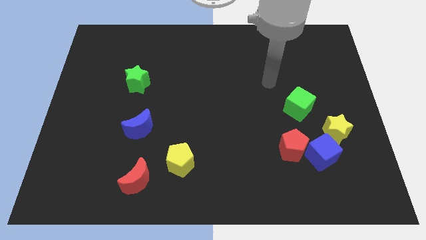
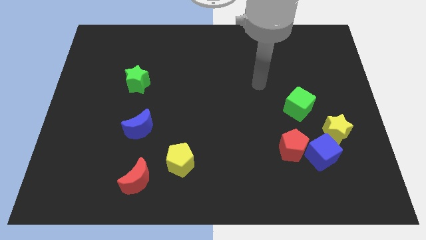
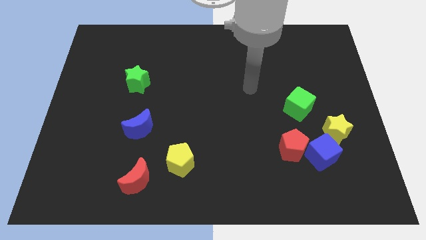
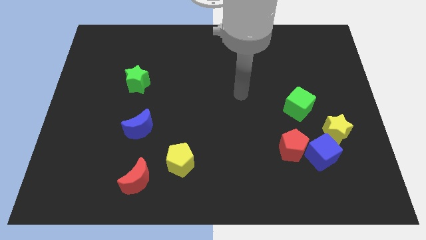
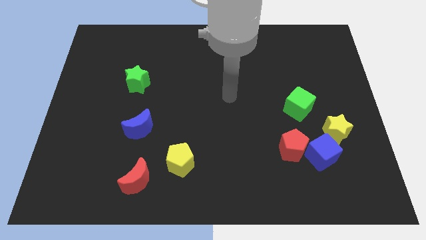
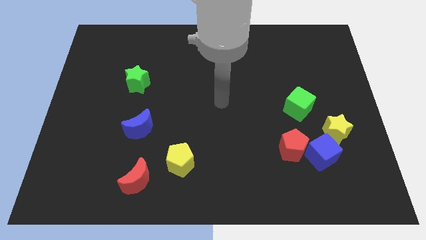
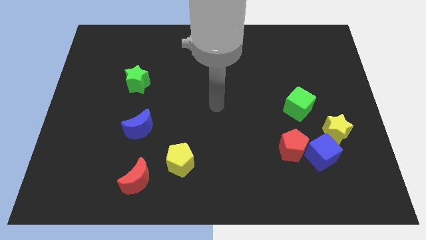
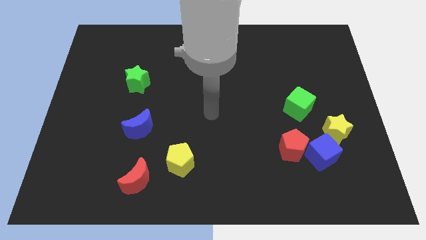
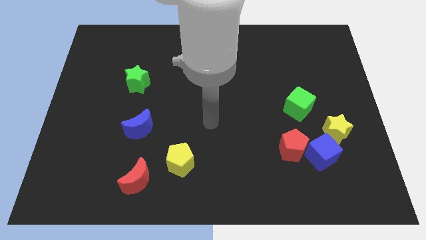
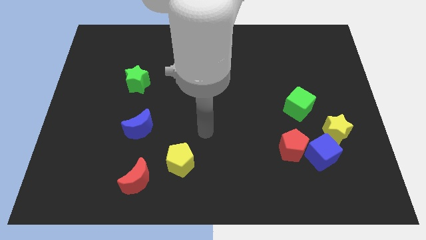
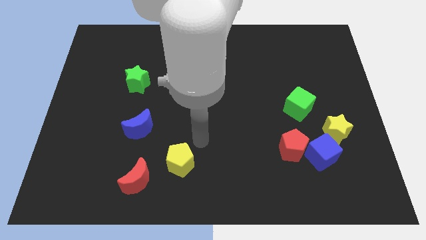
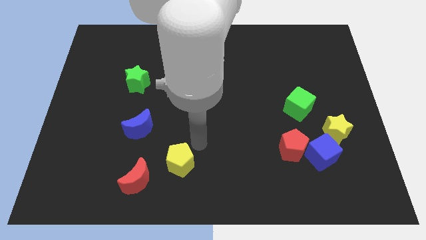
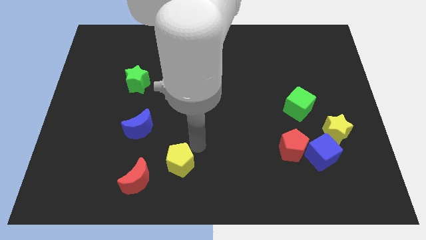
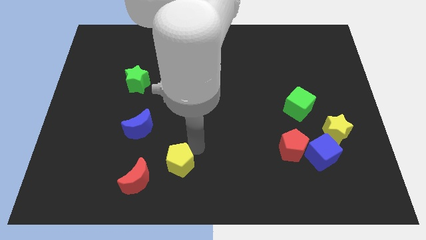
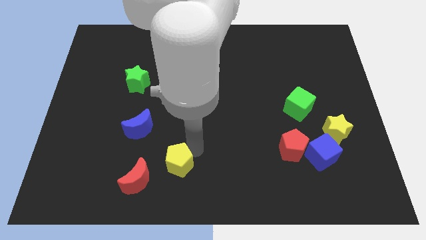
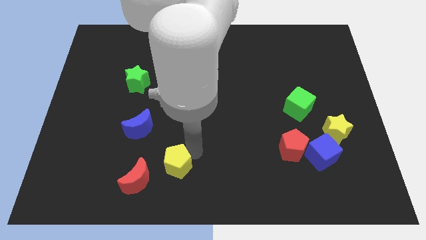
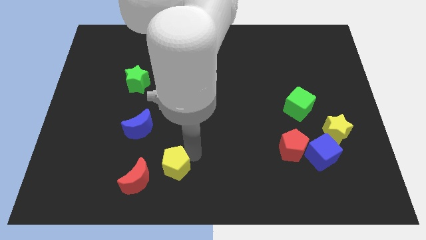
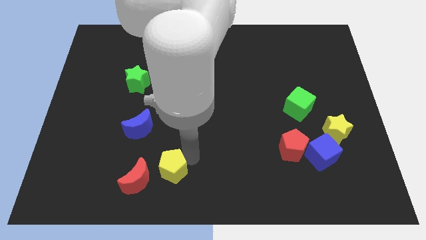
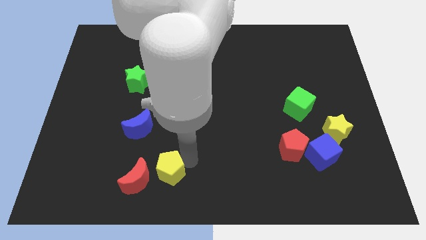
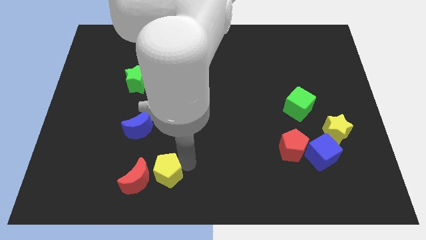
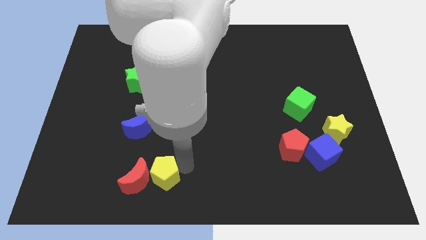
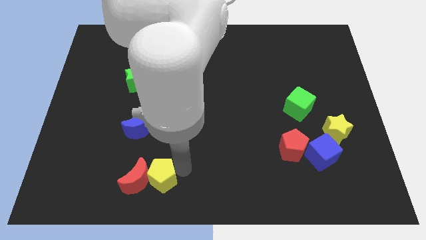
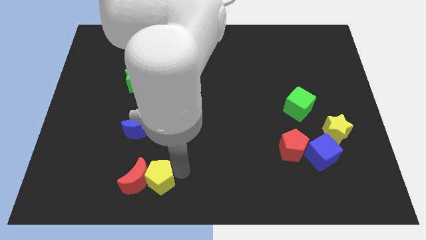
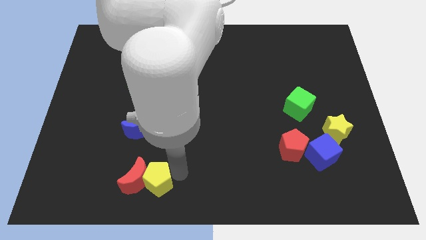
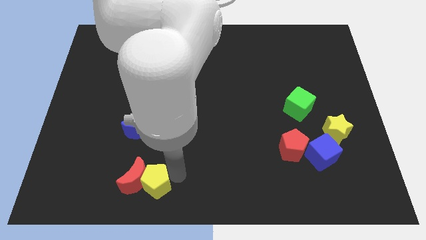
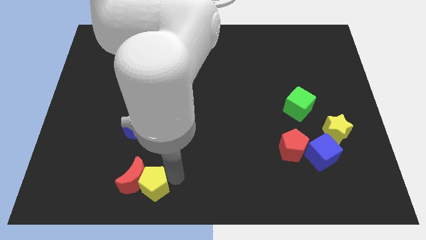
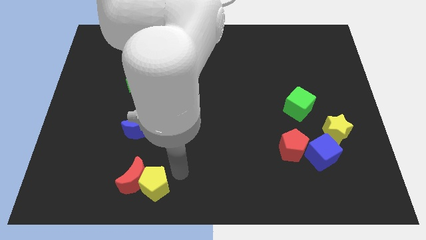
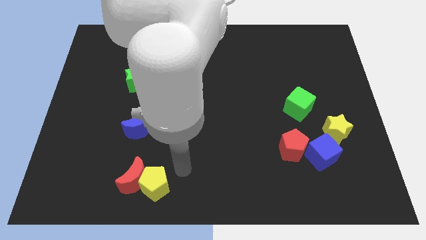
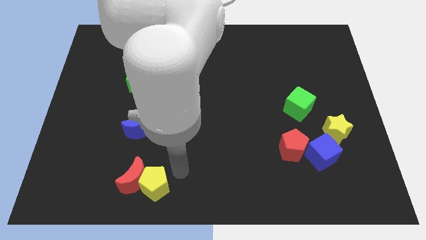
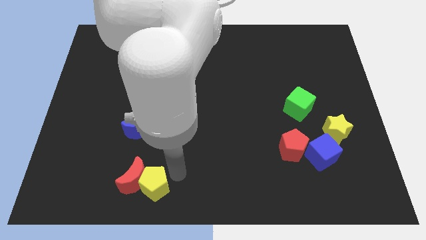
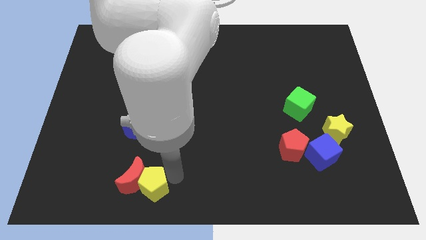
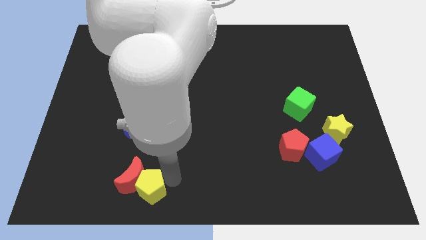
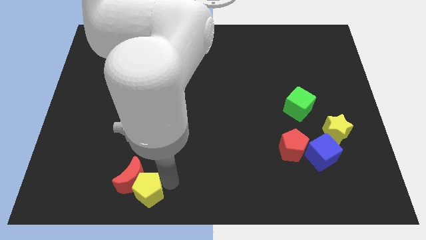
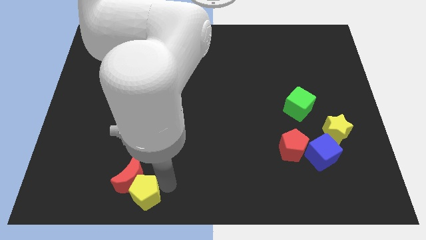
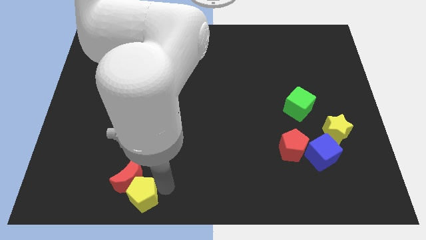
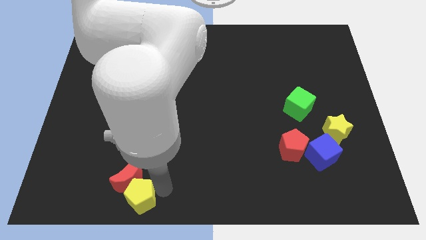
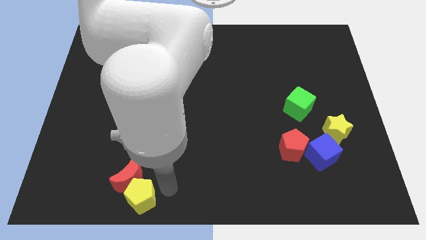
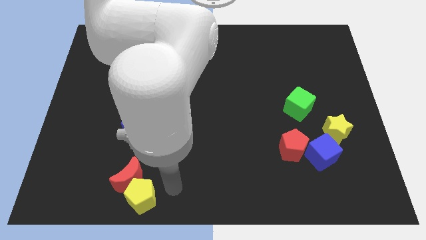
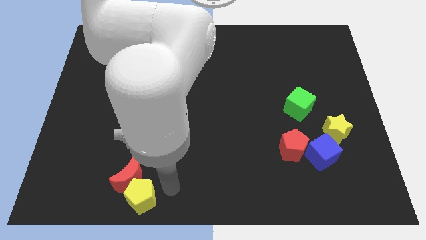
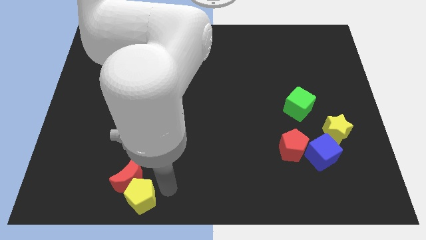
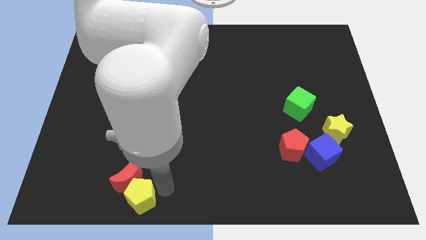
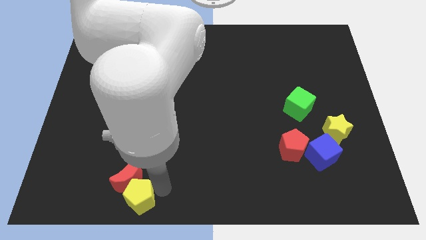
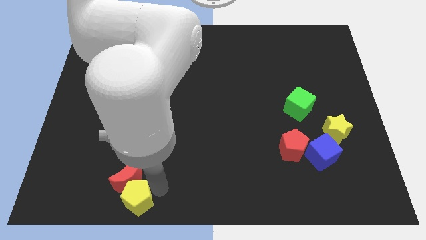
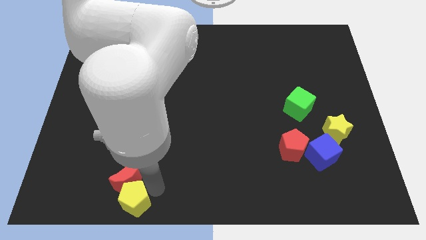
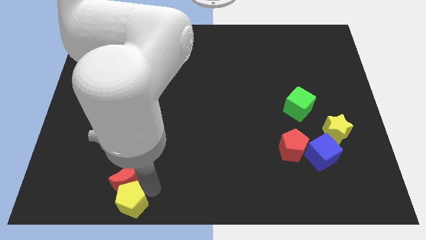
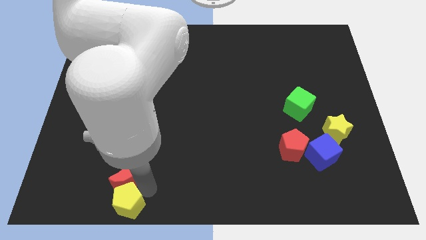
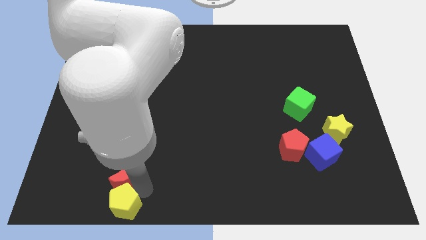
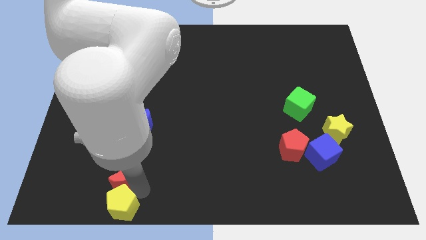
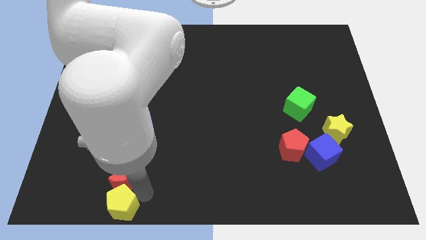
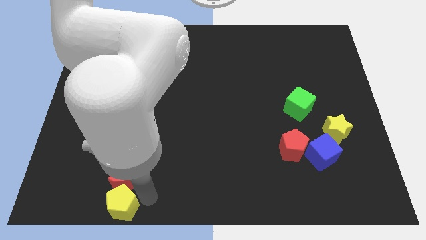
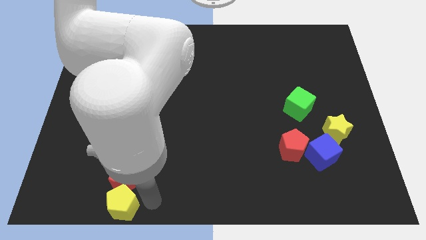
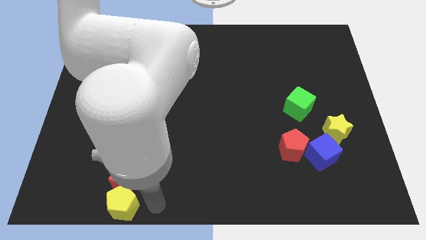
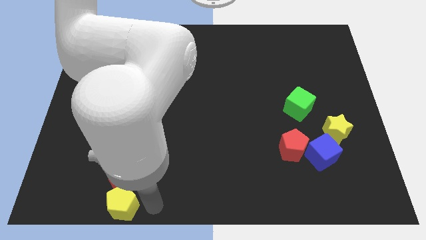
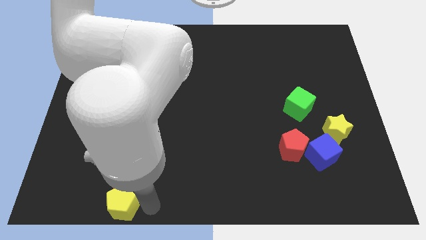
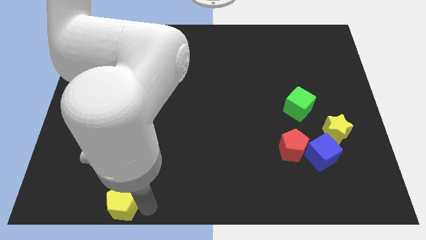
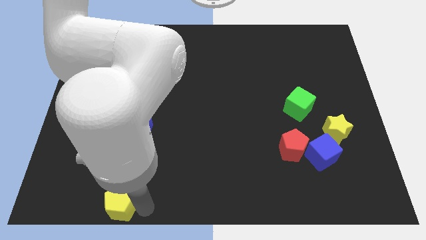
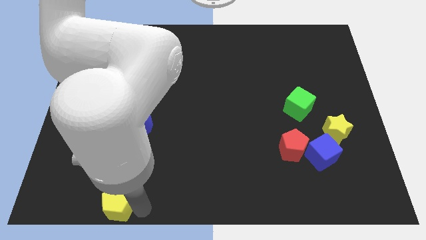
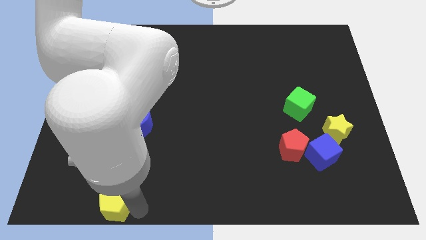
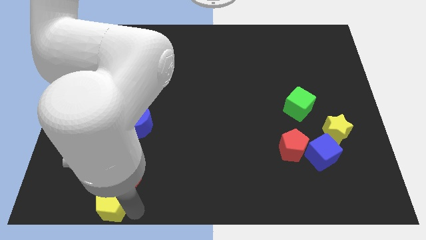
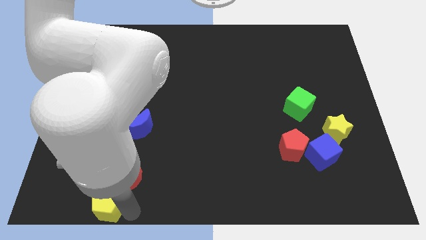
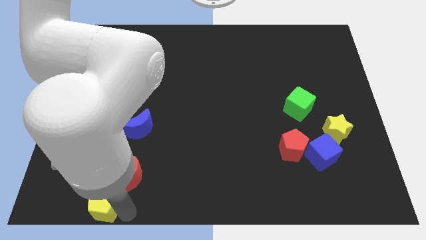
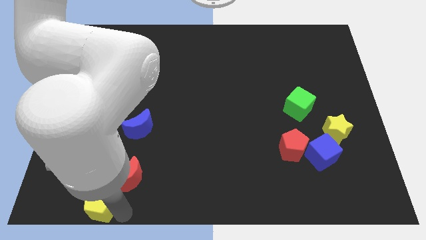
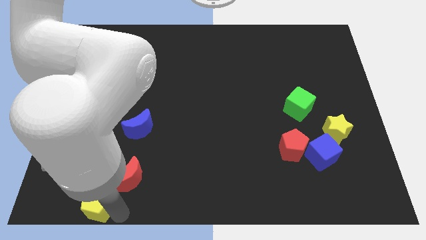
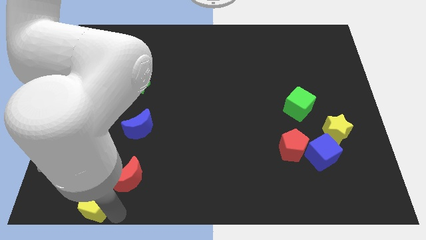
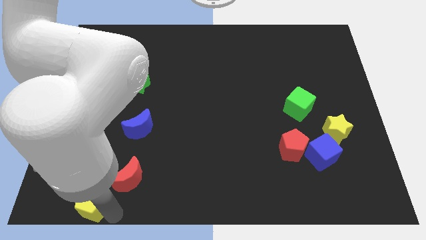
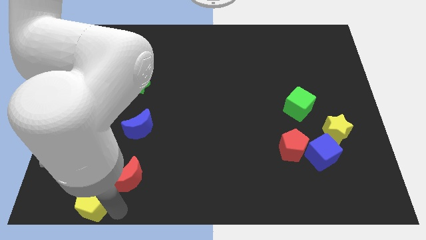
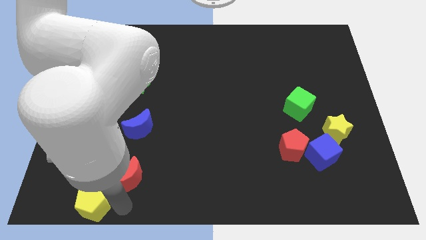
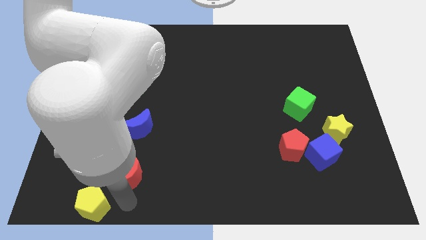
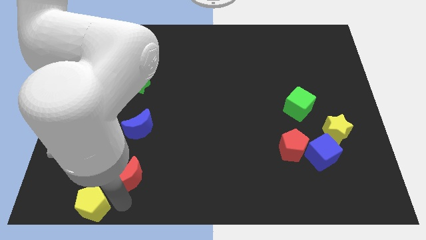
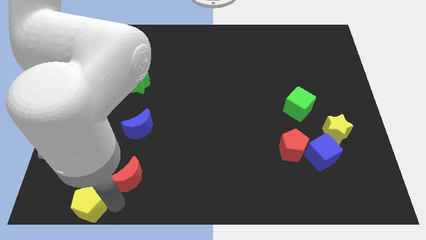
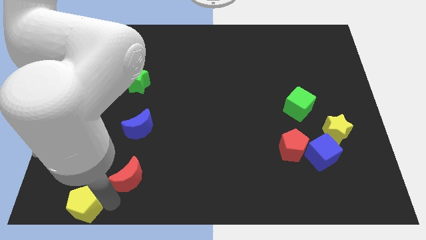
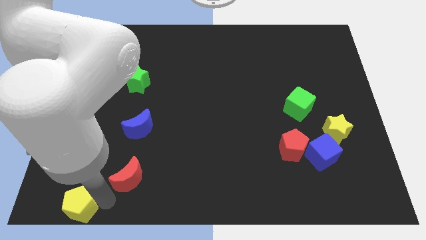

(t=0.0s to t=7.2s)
slide the yellow pentagon to the bottom left of the board
